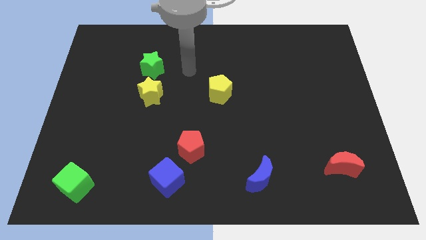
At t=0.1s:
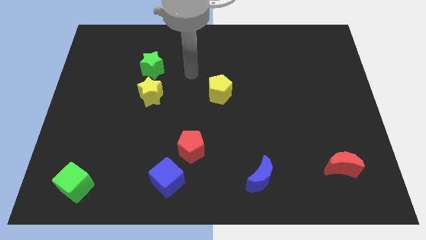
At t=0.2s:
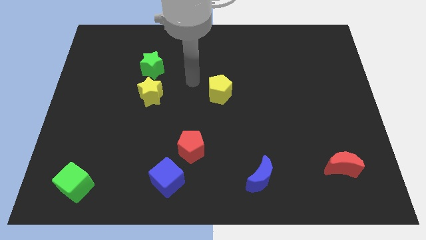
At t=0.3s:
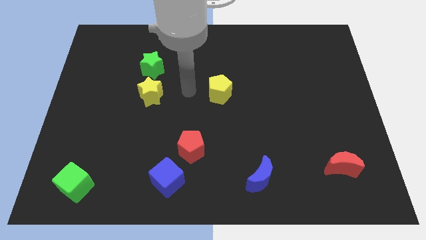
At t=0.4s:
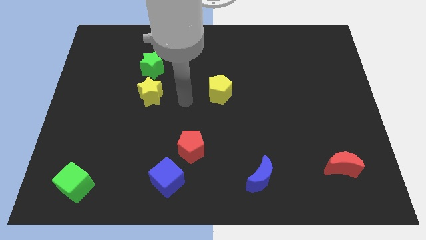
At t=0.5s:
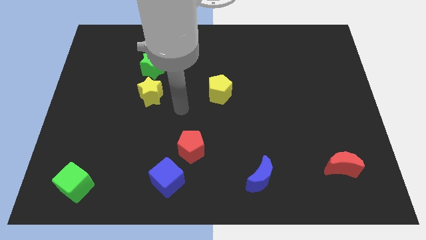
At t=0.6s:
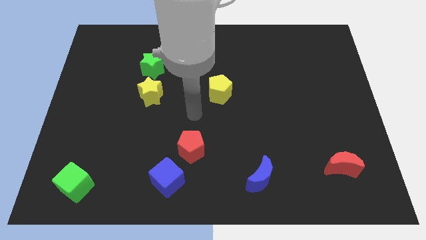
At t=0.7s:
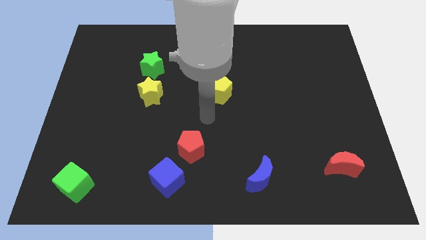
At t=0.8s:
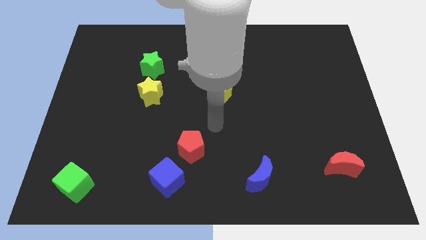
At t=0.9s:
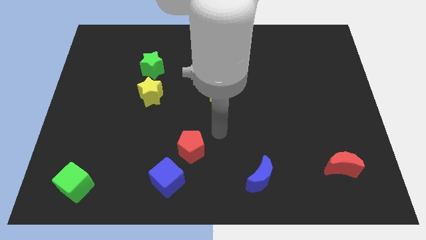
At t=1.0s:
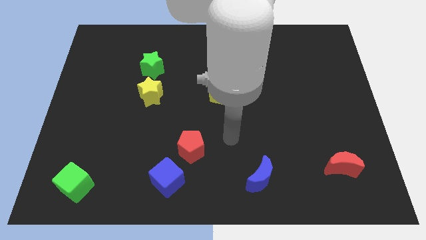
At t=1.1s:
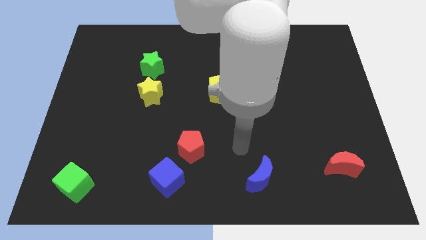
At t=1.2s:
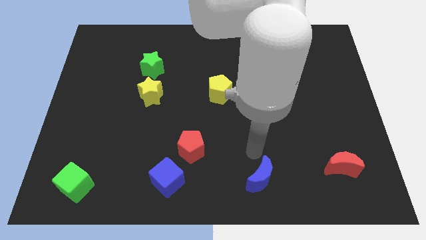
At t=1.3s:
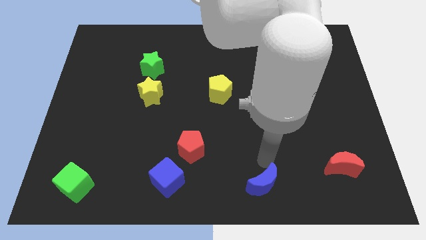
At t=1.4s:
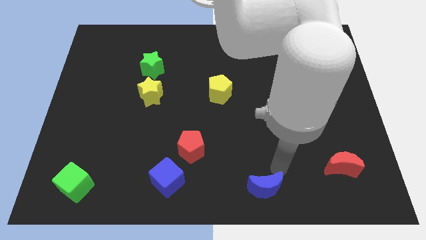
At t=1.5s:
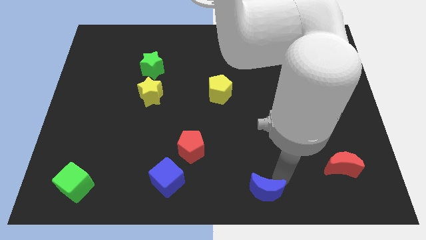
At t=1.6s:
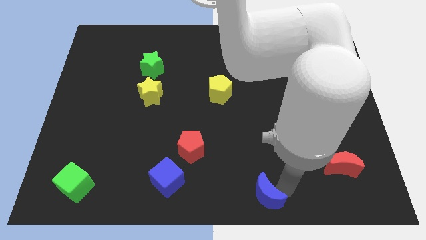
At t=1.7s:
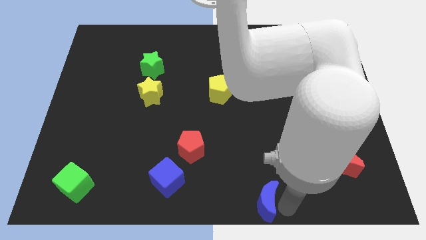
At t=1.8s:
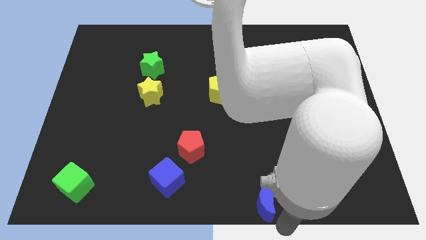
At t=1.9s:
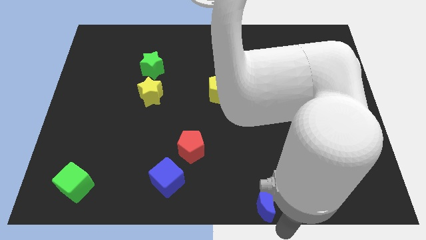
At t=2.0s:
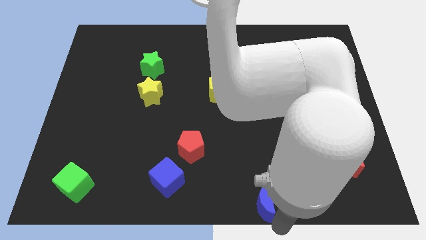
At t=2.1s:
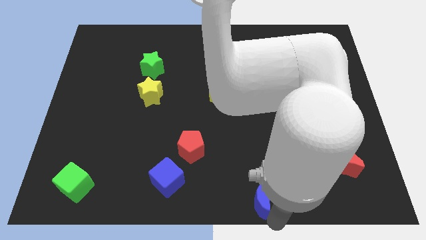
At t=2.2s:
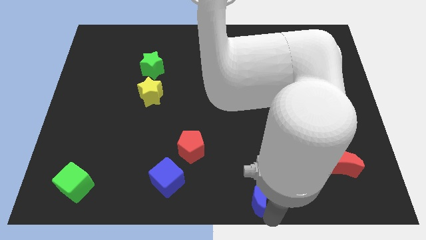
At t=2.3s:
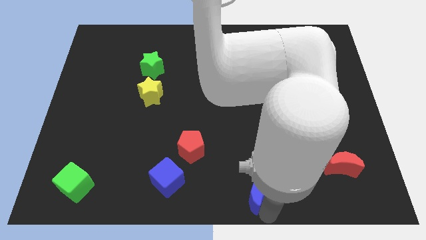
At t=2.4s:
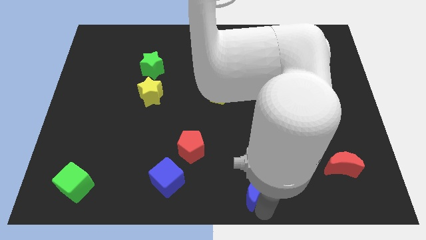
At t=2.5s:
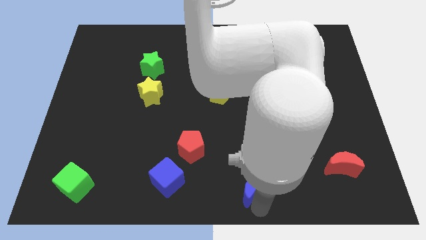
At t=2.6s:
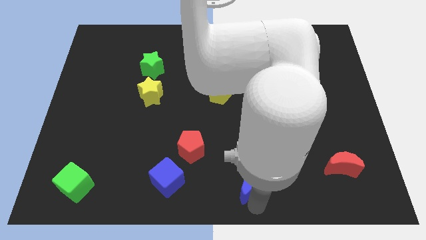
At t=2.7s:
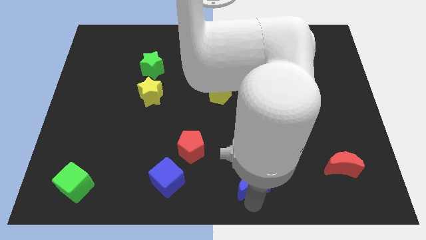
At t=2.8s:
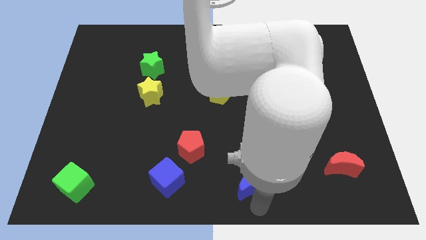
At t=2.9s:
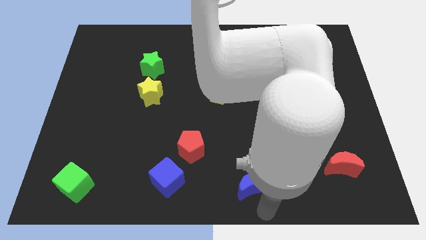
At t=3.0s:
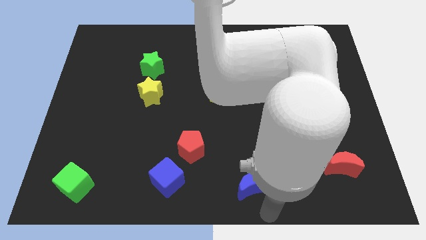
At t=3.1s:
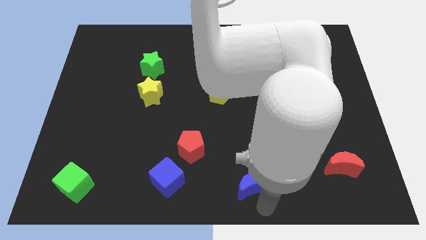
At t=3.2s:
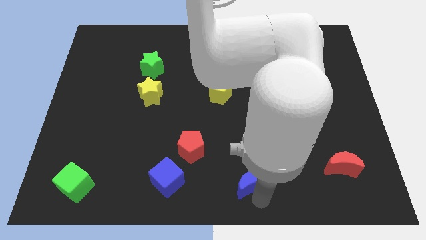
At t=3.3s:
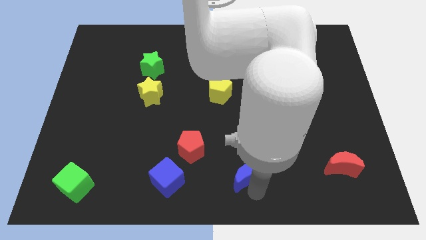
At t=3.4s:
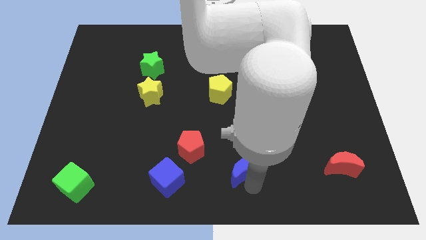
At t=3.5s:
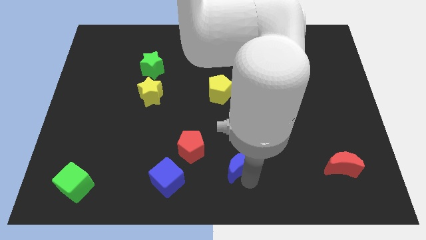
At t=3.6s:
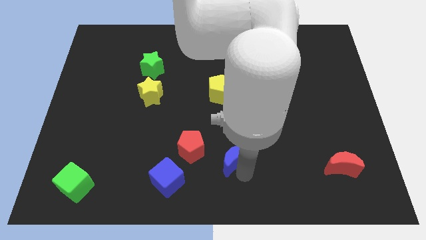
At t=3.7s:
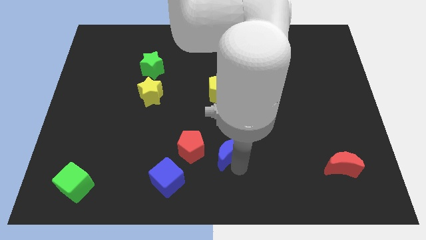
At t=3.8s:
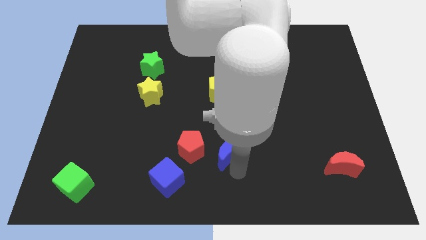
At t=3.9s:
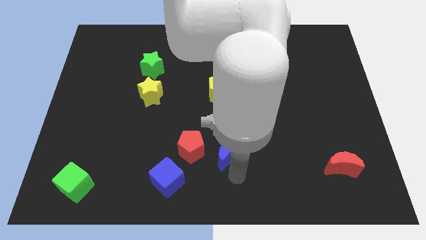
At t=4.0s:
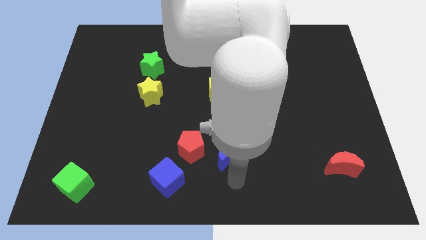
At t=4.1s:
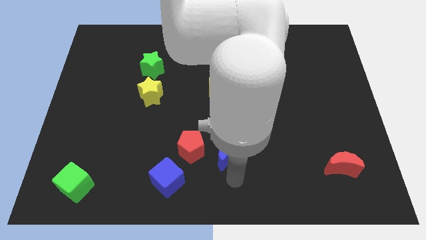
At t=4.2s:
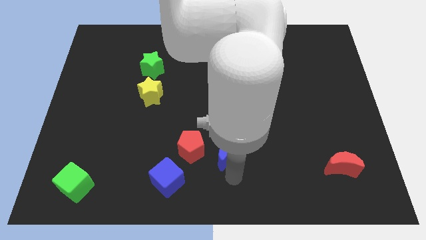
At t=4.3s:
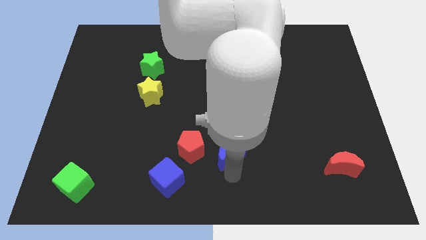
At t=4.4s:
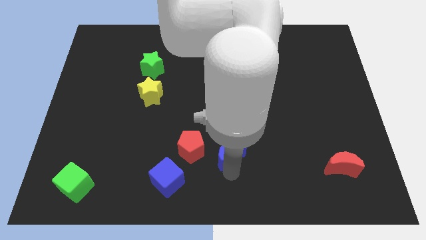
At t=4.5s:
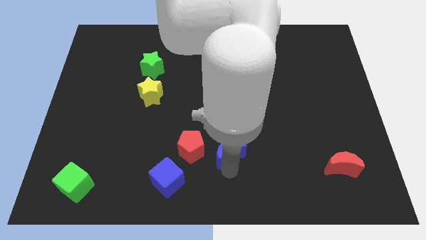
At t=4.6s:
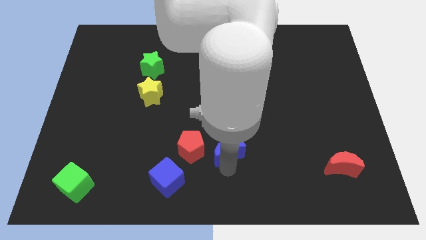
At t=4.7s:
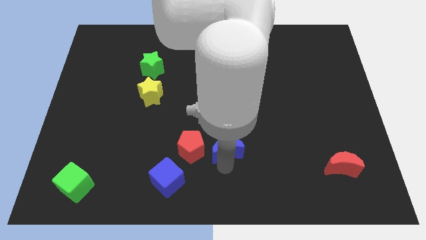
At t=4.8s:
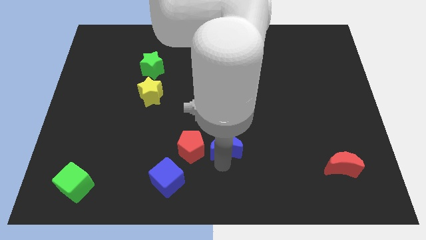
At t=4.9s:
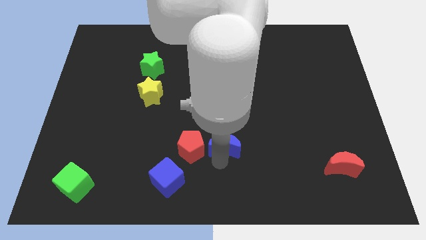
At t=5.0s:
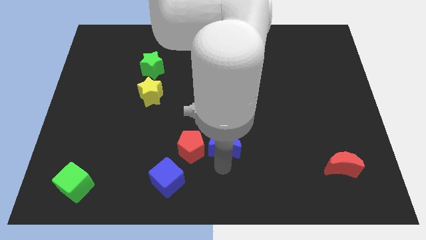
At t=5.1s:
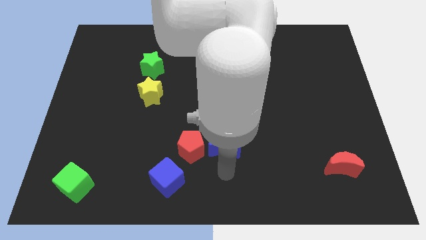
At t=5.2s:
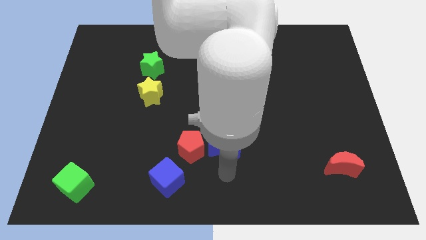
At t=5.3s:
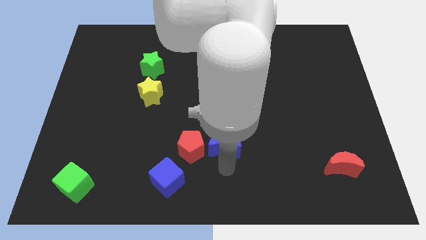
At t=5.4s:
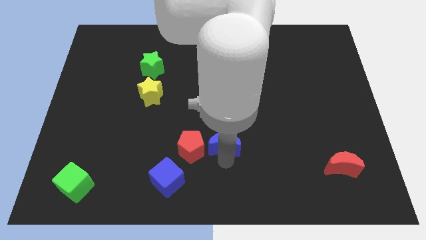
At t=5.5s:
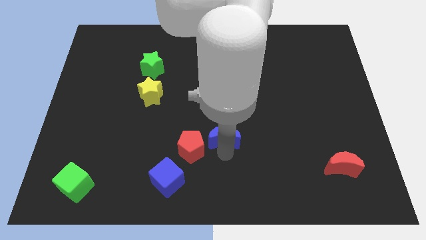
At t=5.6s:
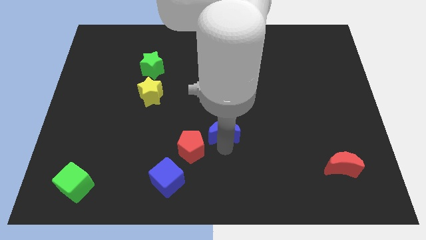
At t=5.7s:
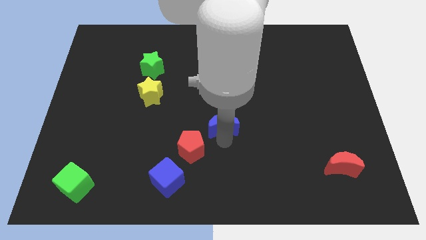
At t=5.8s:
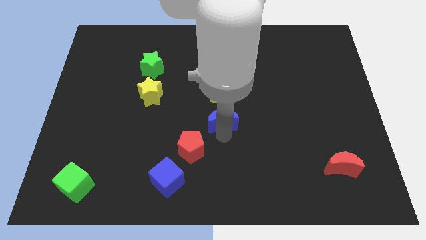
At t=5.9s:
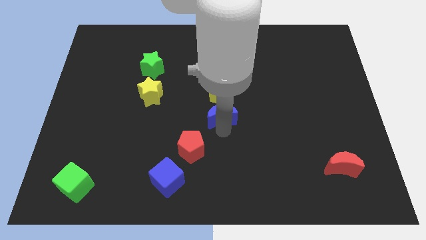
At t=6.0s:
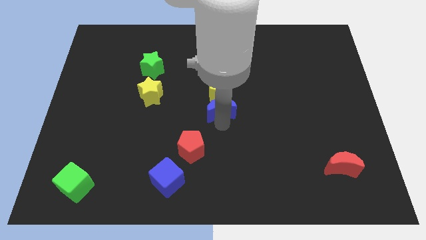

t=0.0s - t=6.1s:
move the blue moon to the yellow pentagon

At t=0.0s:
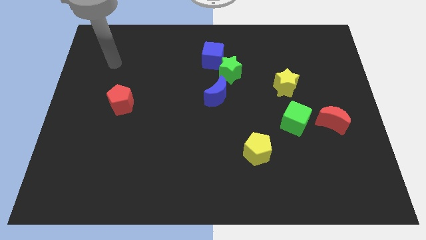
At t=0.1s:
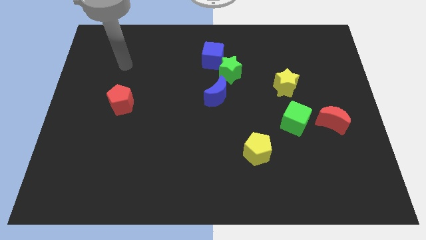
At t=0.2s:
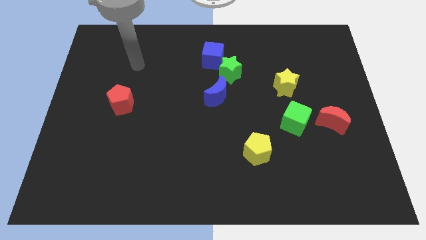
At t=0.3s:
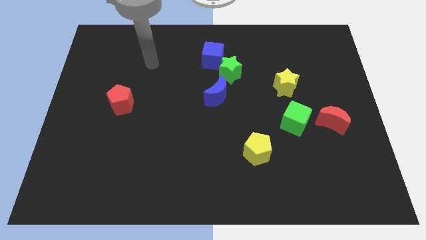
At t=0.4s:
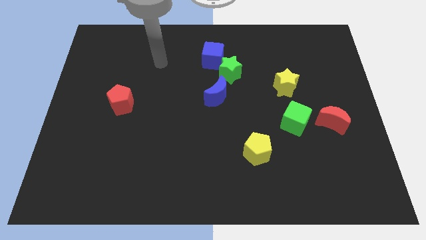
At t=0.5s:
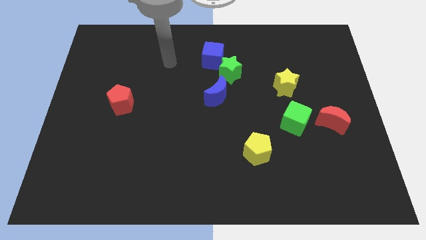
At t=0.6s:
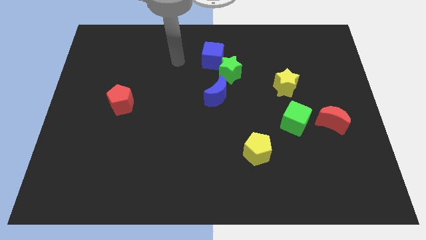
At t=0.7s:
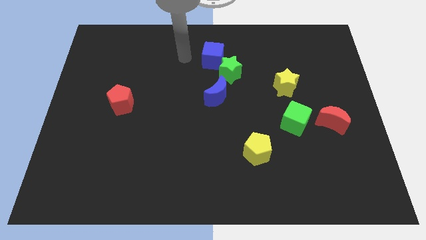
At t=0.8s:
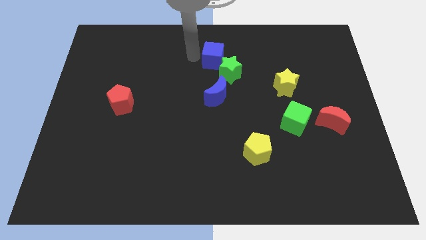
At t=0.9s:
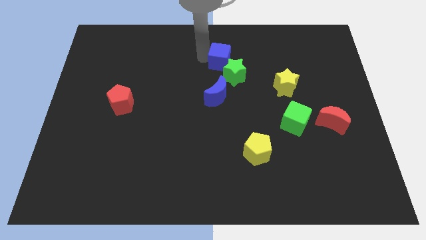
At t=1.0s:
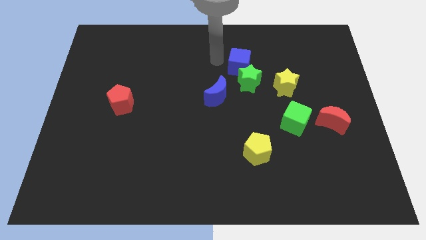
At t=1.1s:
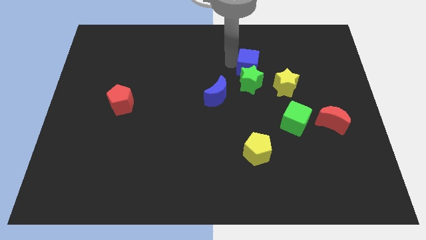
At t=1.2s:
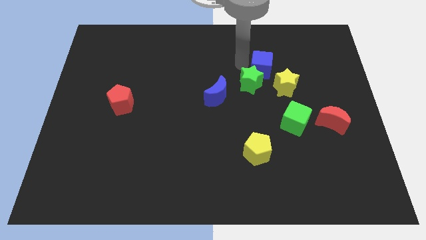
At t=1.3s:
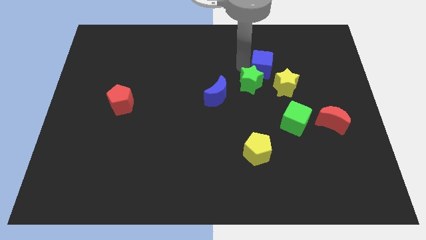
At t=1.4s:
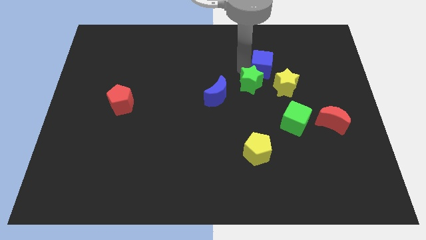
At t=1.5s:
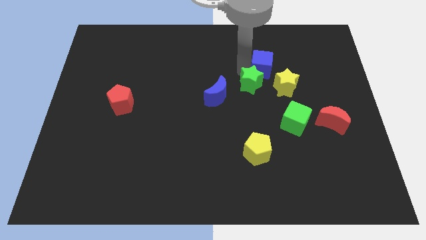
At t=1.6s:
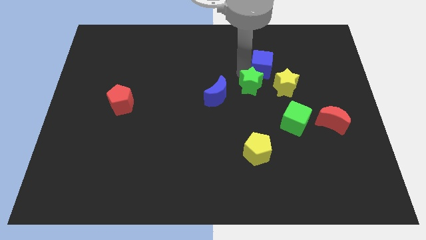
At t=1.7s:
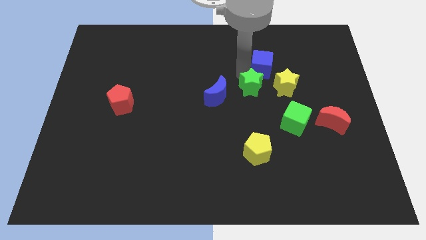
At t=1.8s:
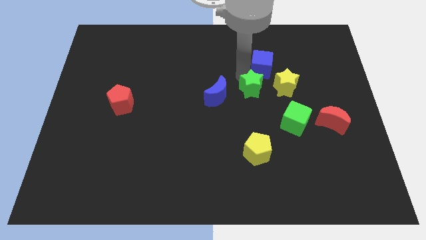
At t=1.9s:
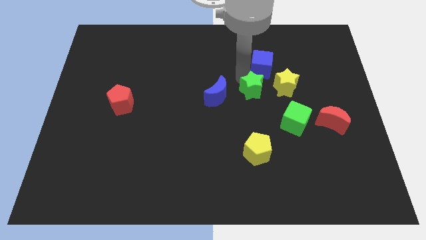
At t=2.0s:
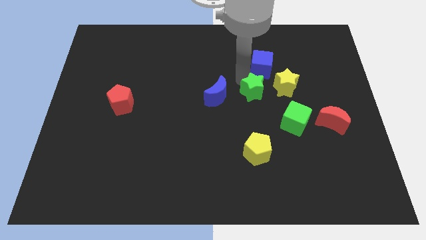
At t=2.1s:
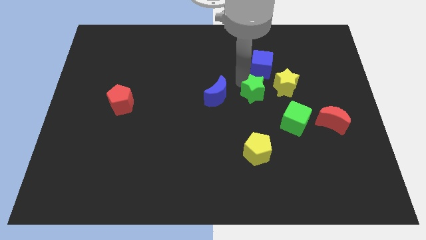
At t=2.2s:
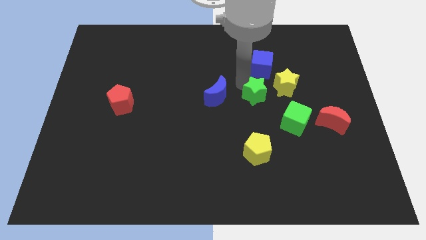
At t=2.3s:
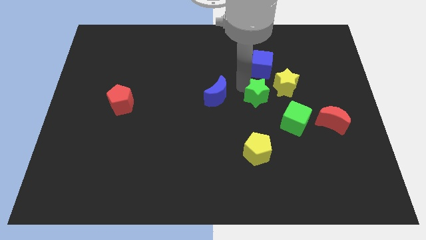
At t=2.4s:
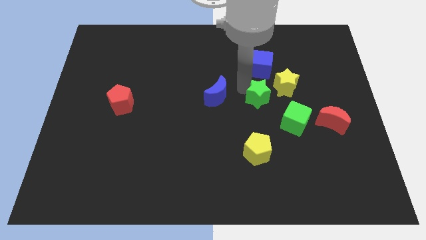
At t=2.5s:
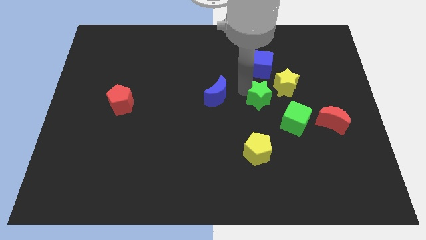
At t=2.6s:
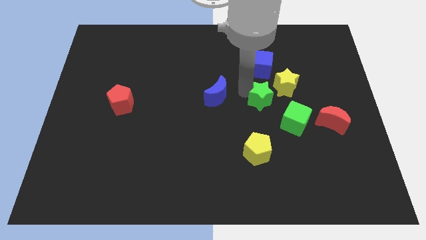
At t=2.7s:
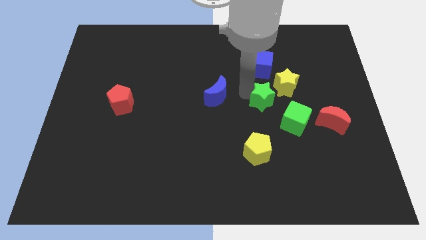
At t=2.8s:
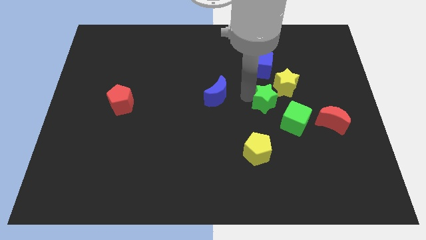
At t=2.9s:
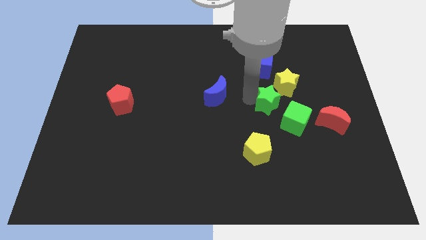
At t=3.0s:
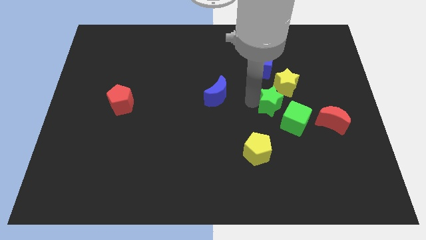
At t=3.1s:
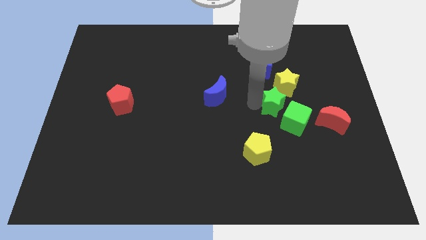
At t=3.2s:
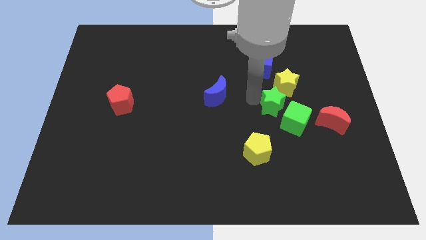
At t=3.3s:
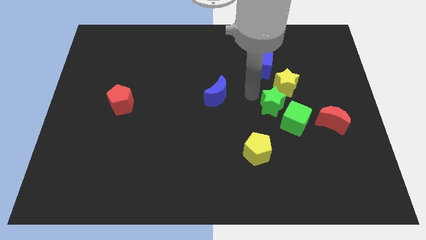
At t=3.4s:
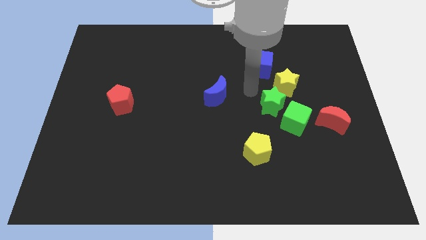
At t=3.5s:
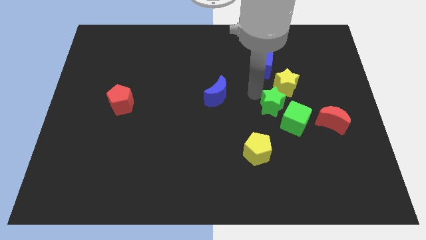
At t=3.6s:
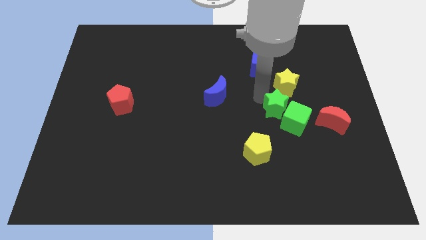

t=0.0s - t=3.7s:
move the green star towards the green cube
